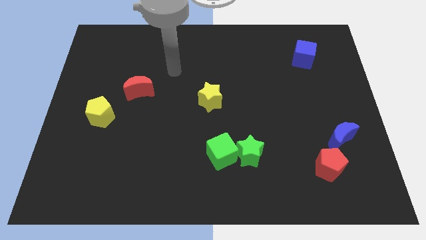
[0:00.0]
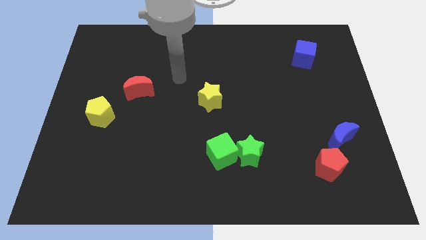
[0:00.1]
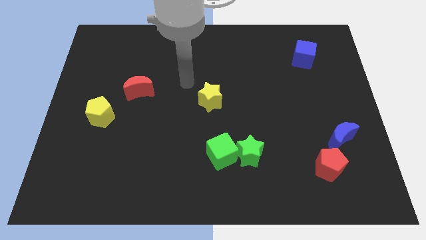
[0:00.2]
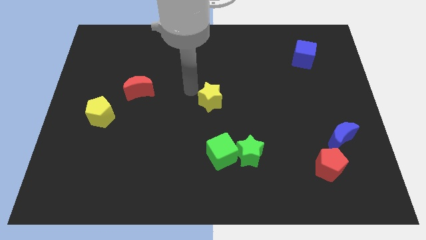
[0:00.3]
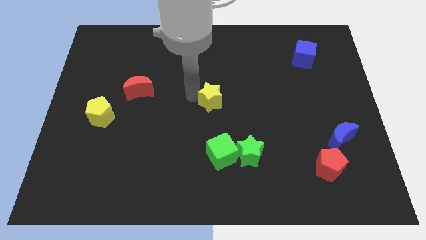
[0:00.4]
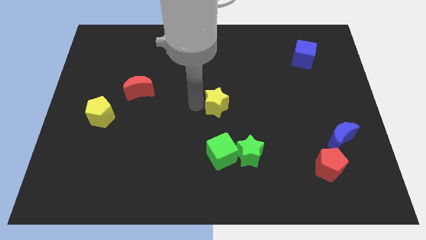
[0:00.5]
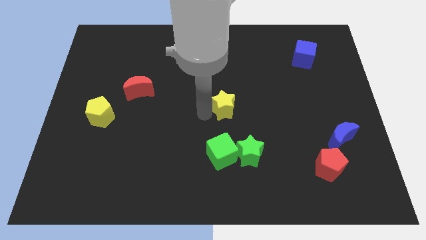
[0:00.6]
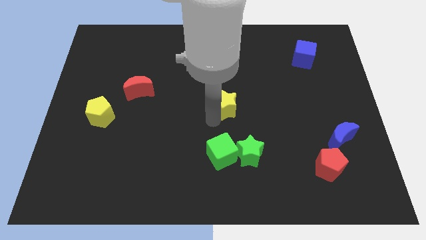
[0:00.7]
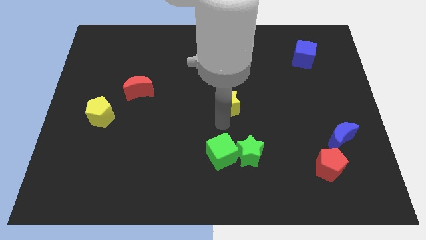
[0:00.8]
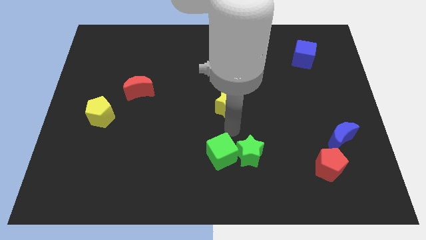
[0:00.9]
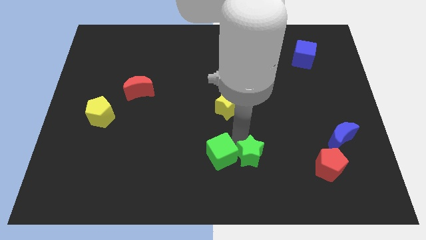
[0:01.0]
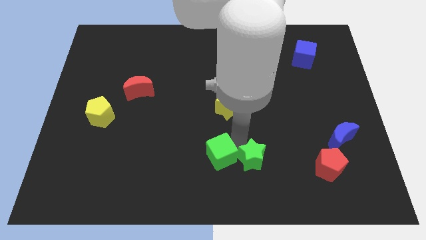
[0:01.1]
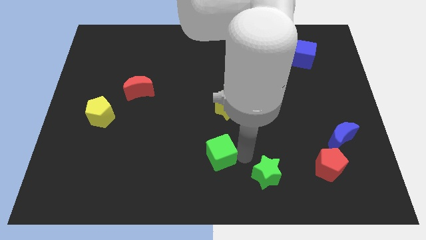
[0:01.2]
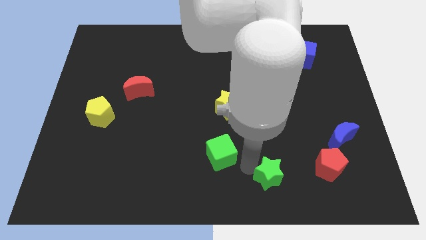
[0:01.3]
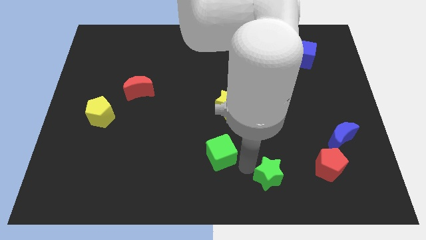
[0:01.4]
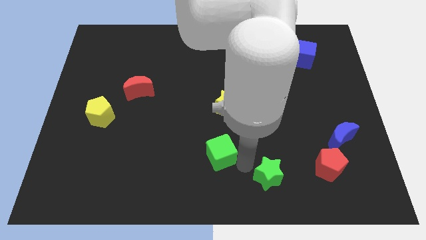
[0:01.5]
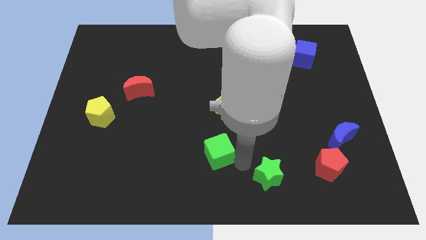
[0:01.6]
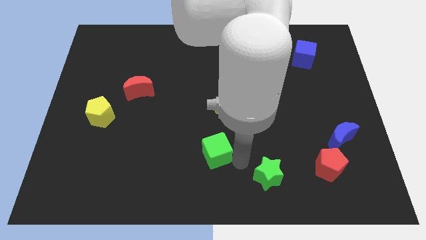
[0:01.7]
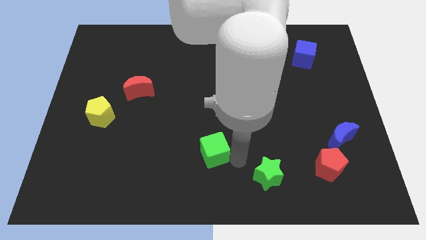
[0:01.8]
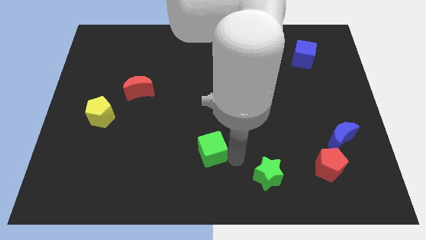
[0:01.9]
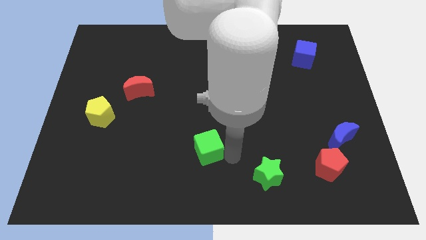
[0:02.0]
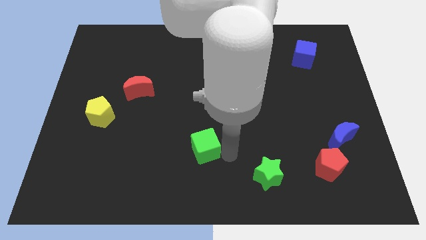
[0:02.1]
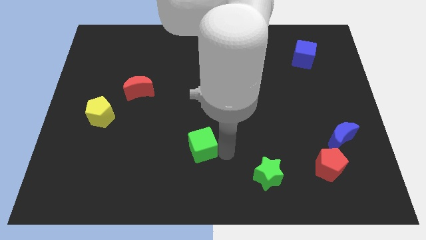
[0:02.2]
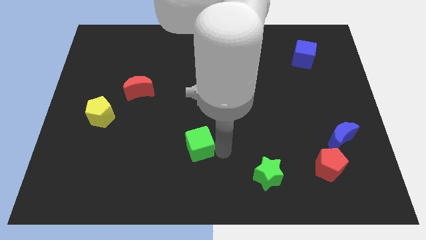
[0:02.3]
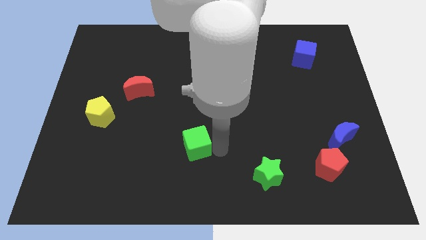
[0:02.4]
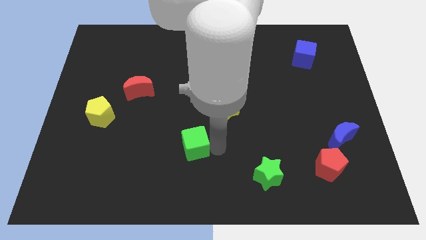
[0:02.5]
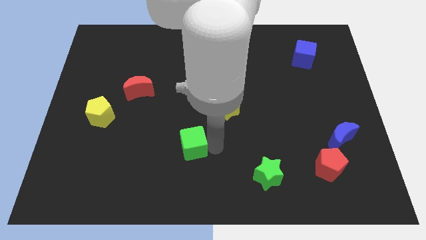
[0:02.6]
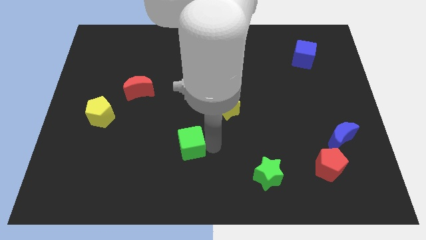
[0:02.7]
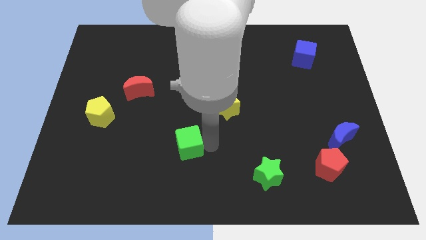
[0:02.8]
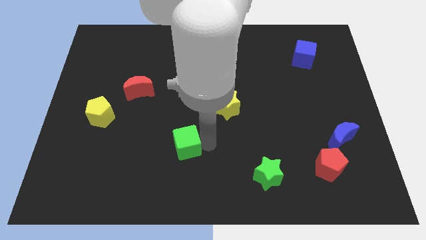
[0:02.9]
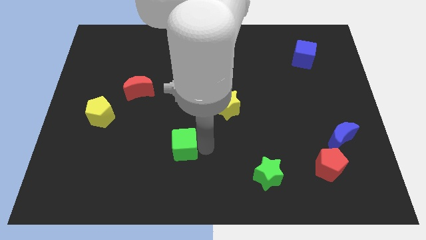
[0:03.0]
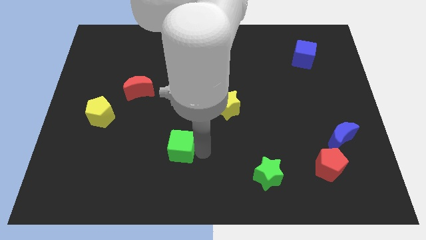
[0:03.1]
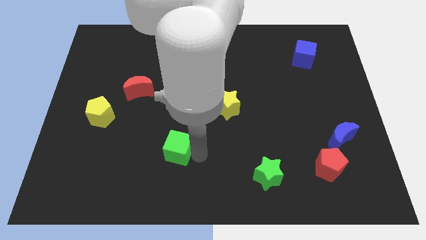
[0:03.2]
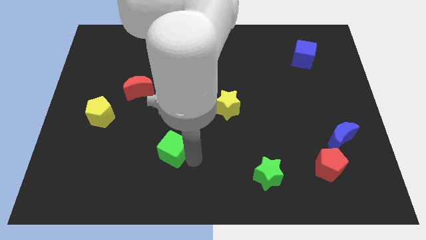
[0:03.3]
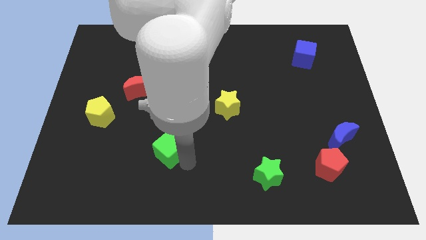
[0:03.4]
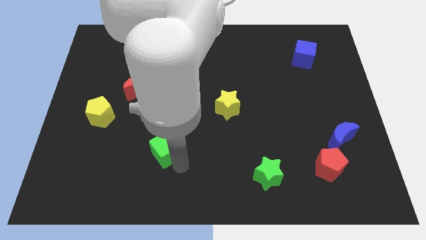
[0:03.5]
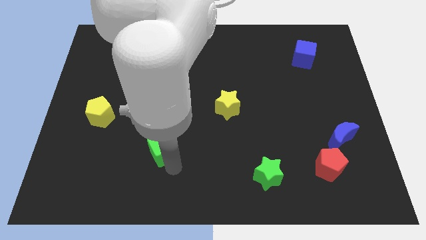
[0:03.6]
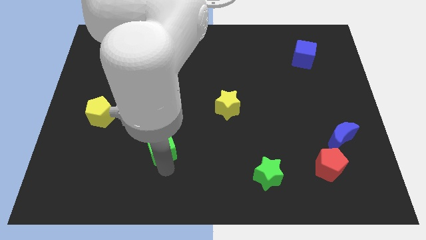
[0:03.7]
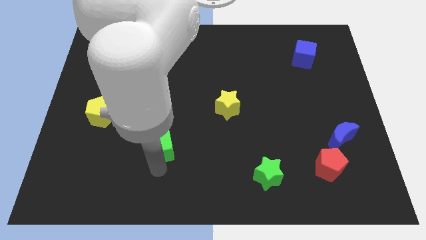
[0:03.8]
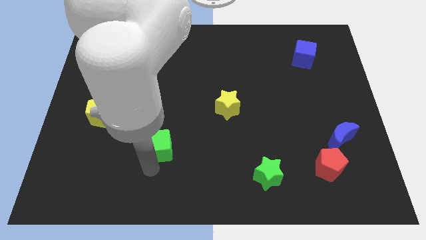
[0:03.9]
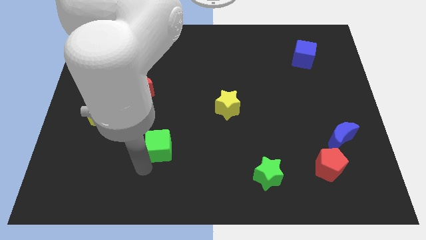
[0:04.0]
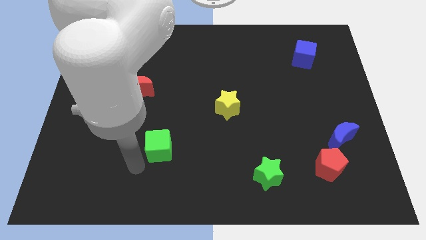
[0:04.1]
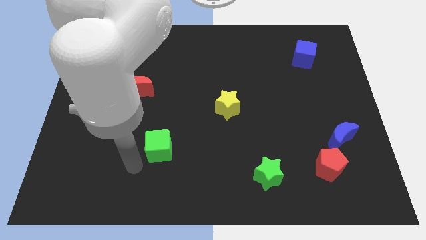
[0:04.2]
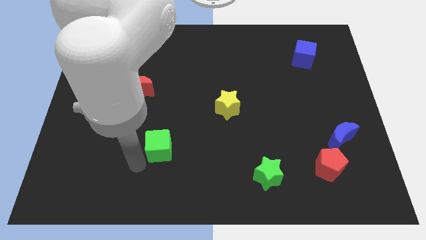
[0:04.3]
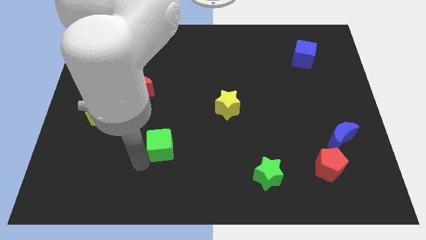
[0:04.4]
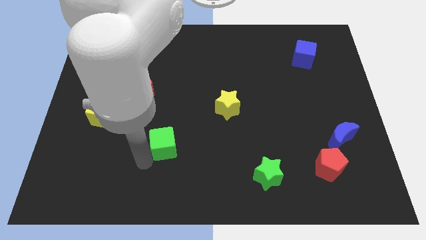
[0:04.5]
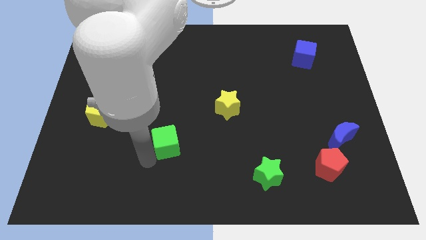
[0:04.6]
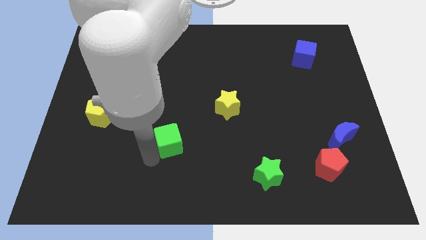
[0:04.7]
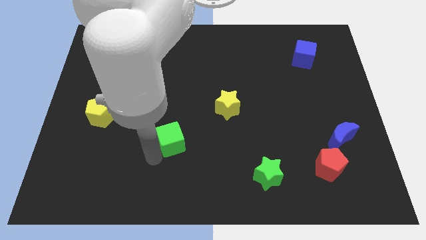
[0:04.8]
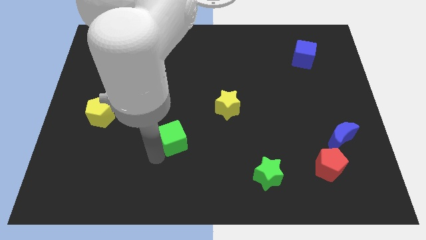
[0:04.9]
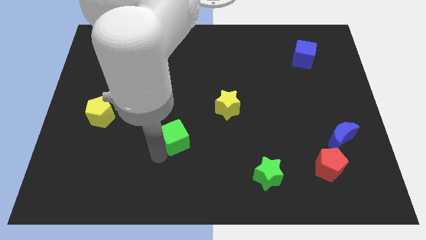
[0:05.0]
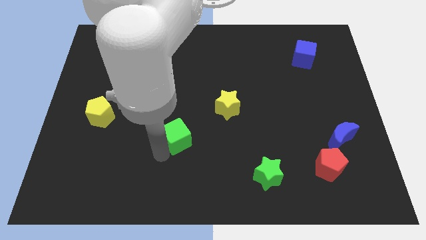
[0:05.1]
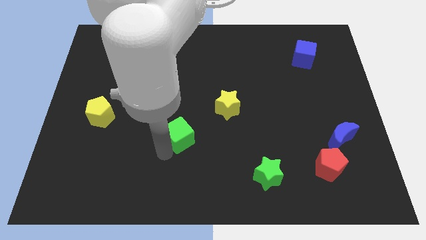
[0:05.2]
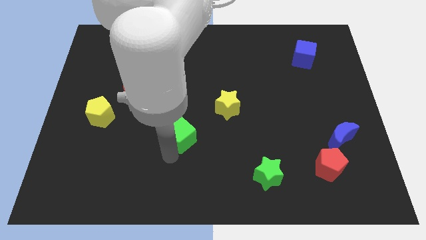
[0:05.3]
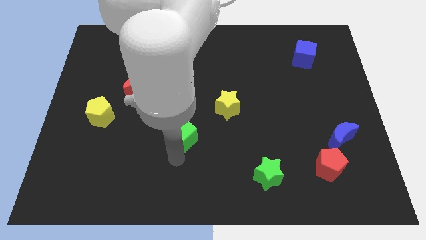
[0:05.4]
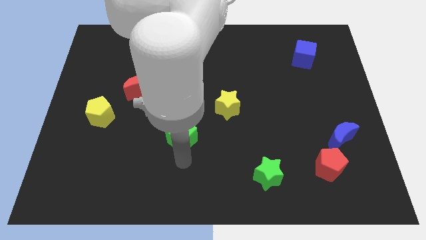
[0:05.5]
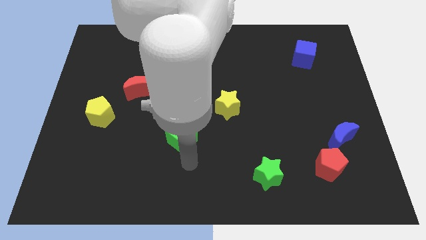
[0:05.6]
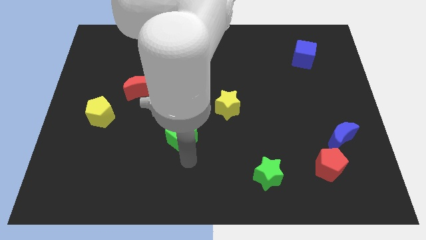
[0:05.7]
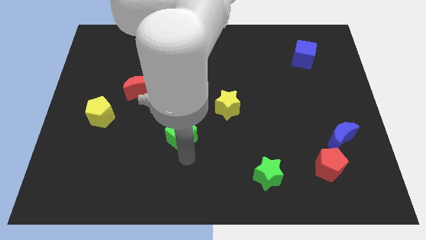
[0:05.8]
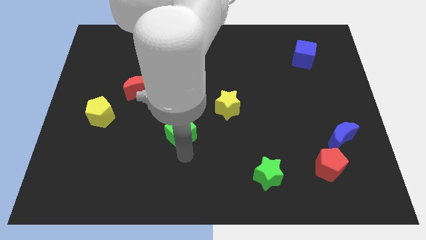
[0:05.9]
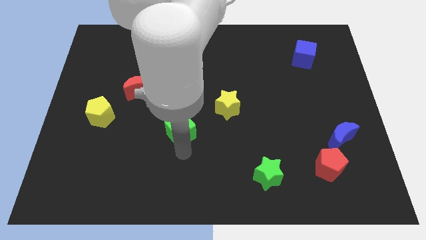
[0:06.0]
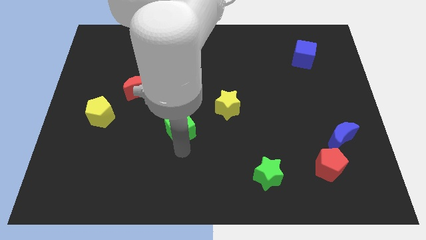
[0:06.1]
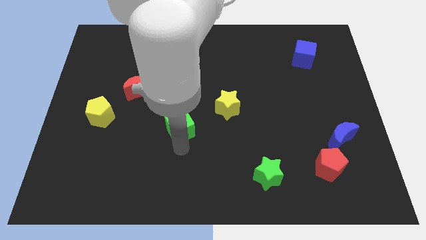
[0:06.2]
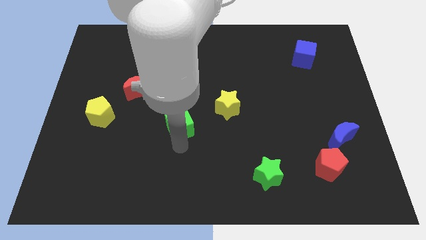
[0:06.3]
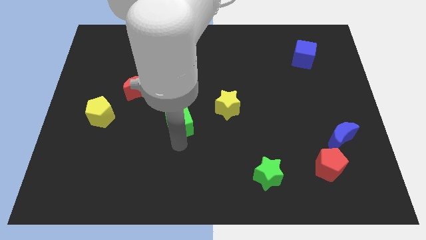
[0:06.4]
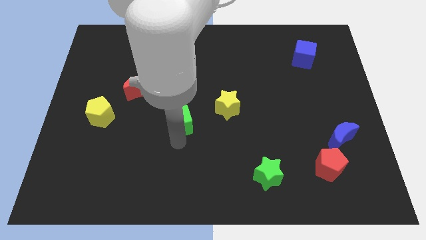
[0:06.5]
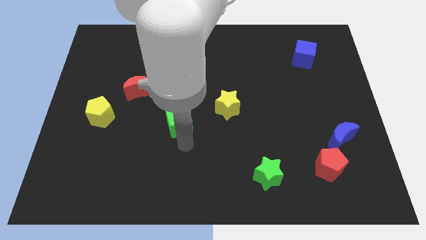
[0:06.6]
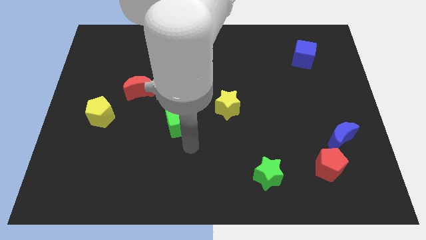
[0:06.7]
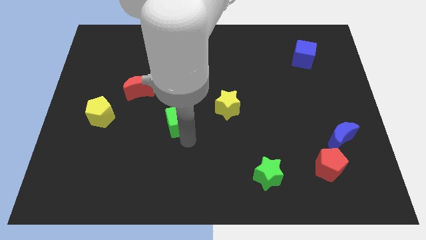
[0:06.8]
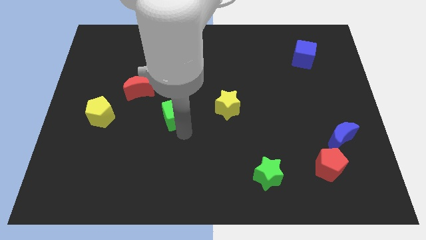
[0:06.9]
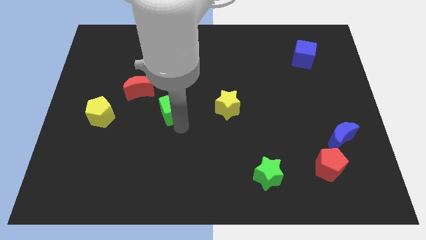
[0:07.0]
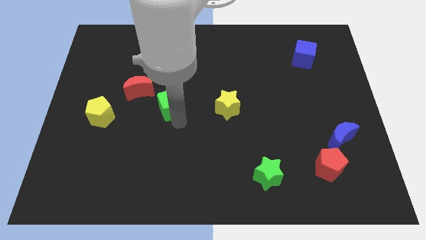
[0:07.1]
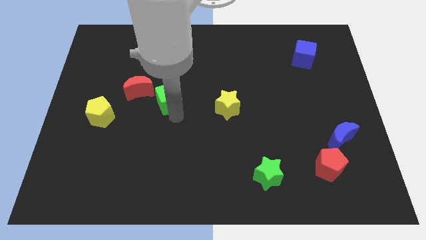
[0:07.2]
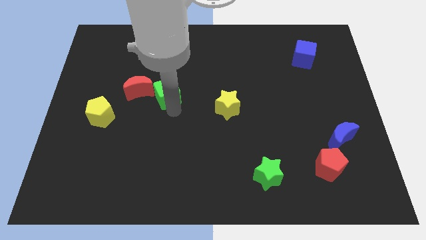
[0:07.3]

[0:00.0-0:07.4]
push the green cube upwards and left diagonally

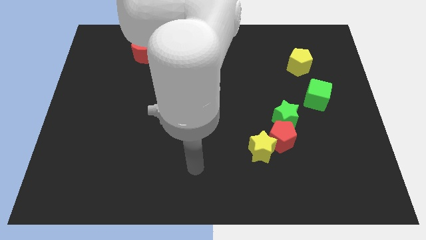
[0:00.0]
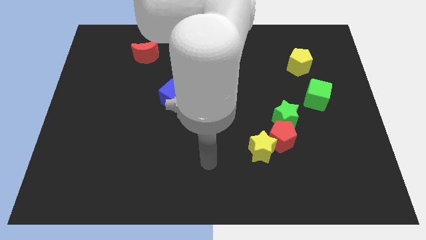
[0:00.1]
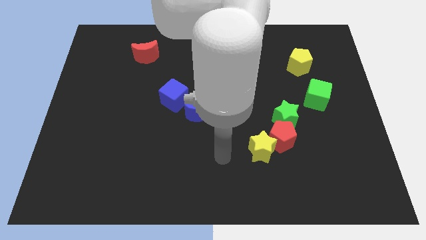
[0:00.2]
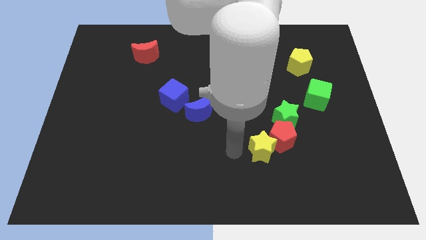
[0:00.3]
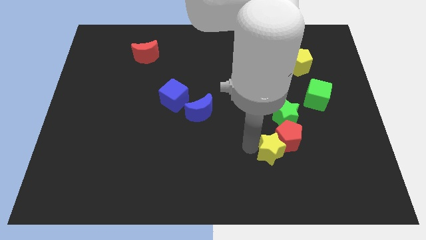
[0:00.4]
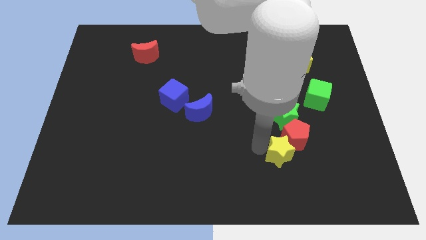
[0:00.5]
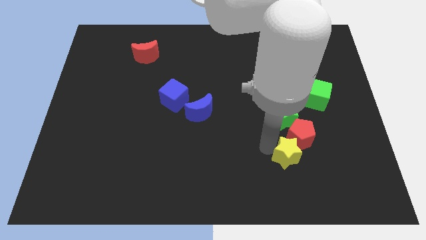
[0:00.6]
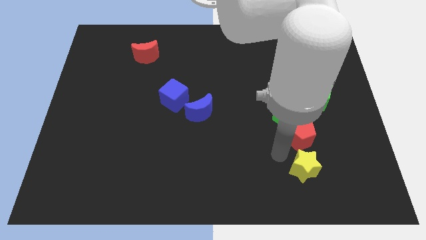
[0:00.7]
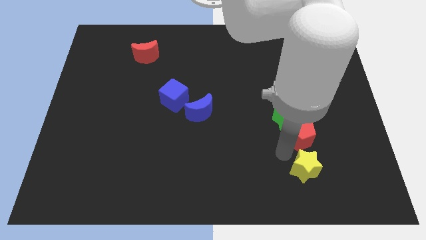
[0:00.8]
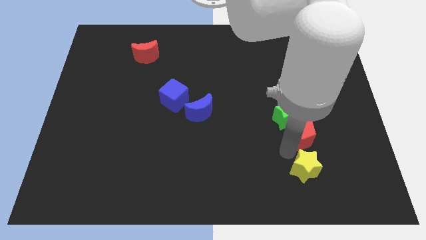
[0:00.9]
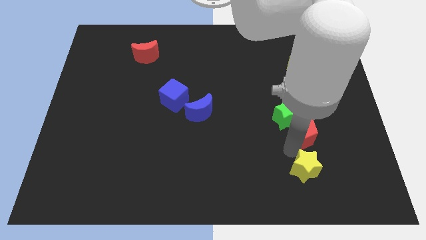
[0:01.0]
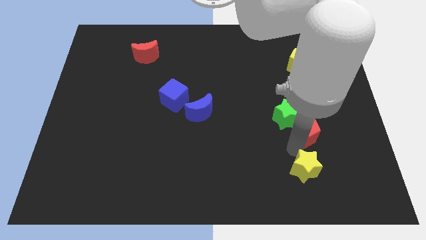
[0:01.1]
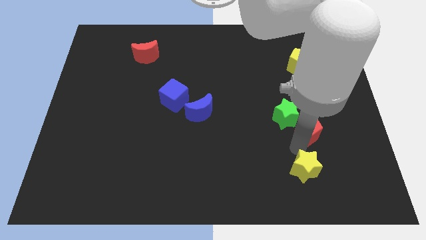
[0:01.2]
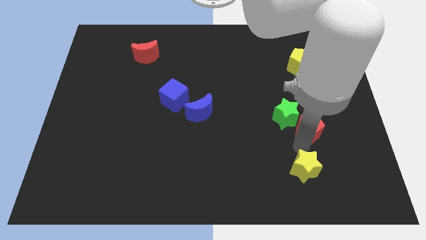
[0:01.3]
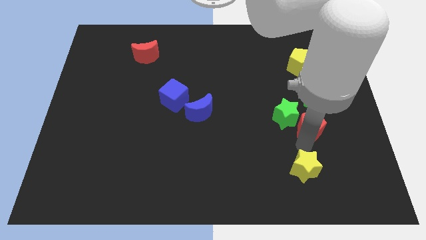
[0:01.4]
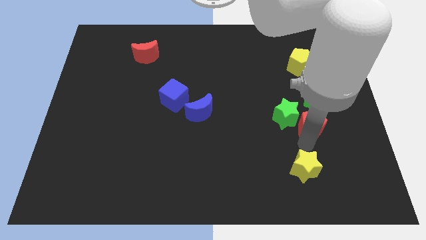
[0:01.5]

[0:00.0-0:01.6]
push the red pentagon upwards and to the right a little
